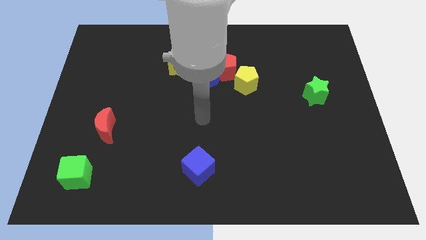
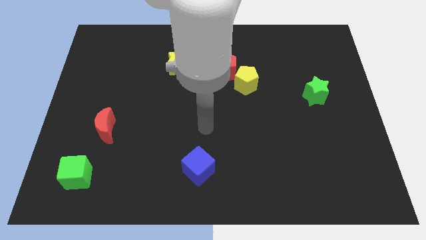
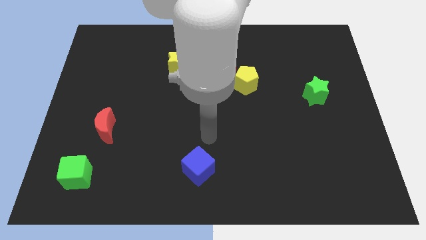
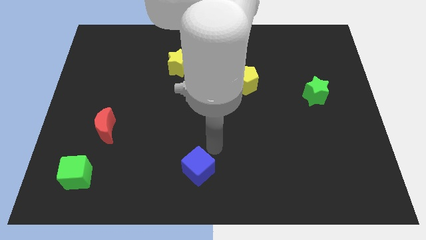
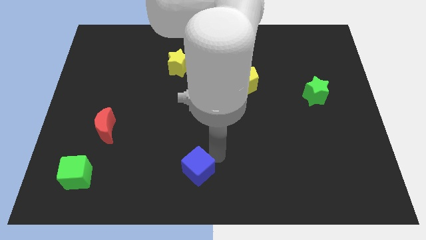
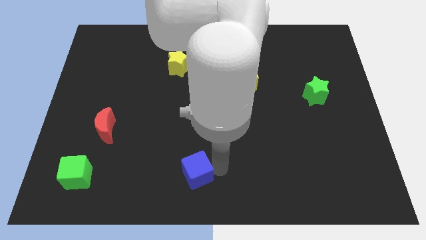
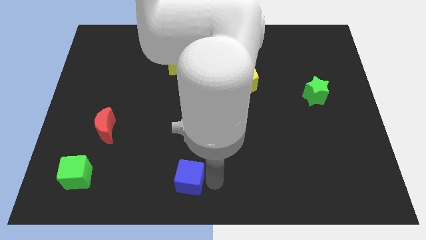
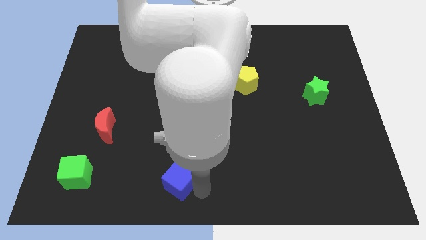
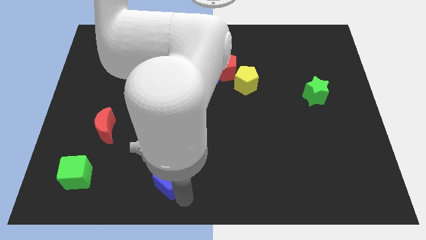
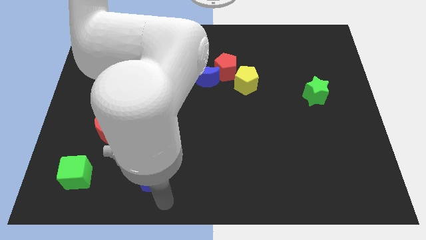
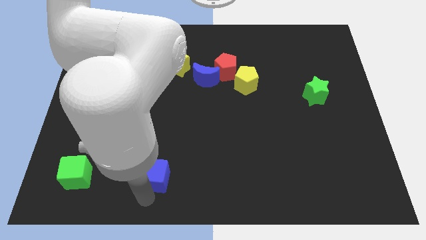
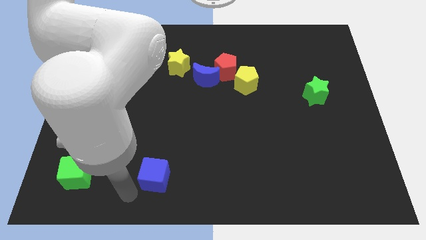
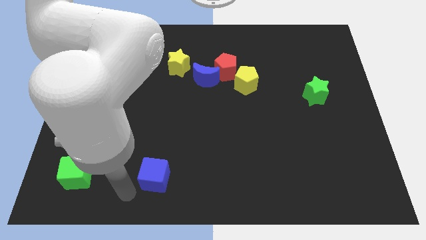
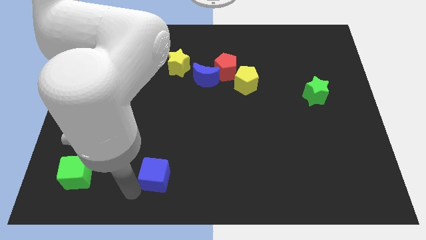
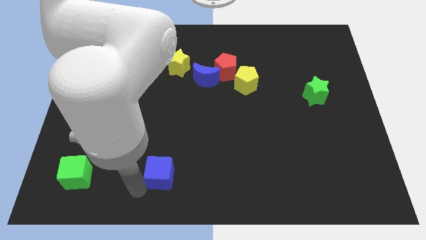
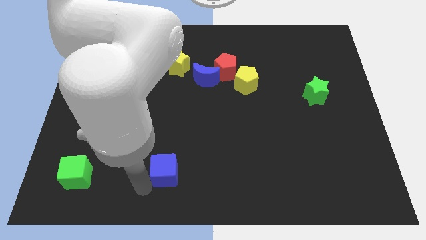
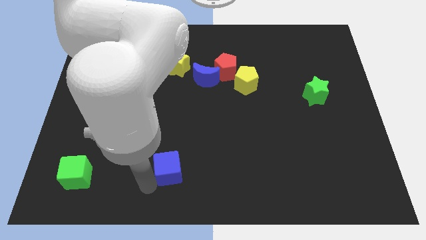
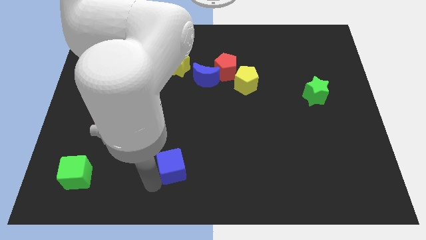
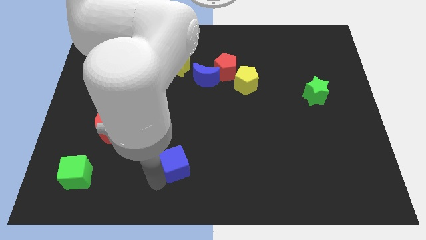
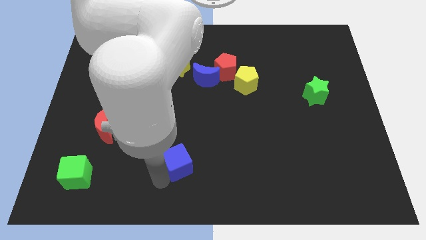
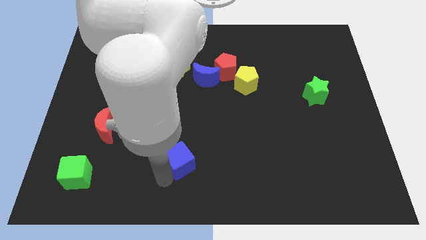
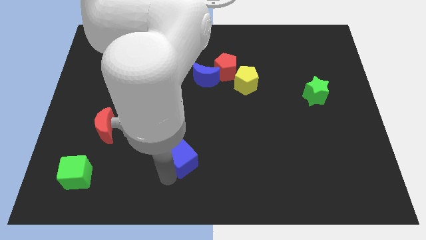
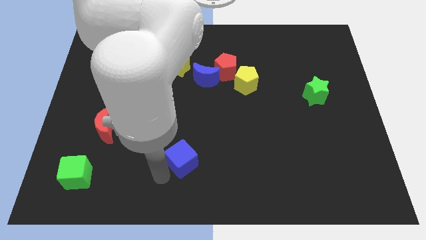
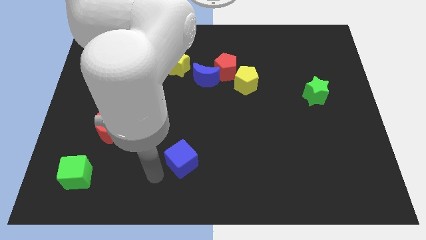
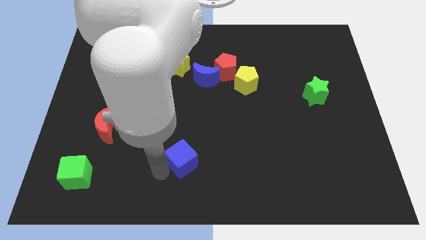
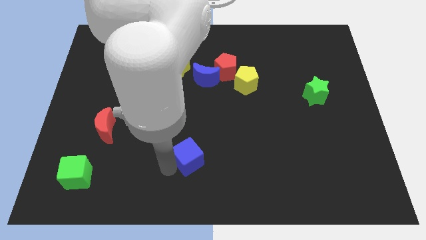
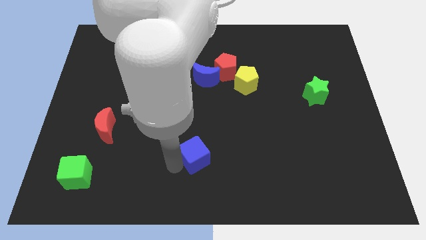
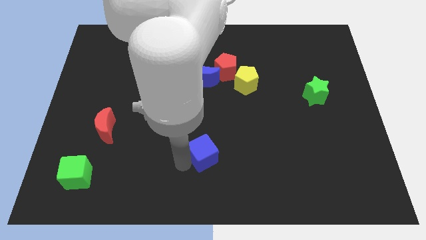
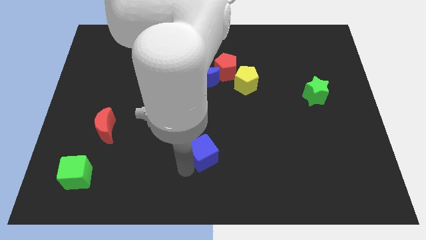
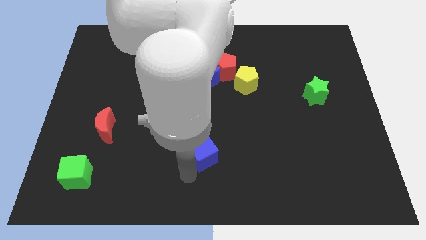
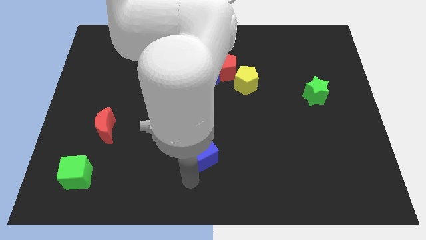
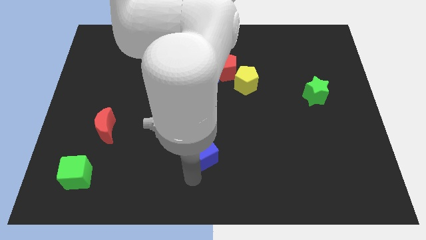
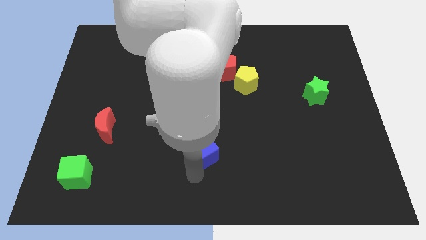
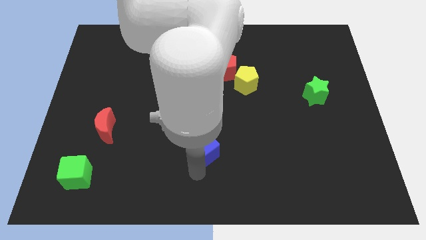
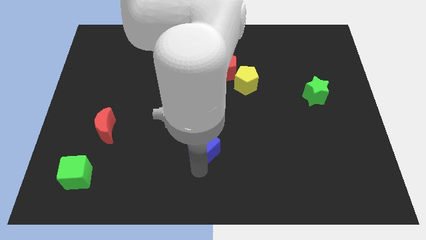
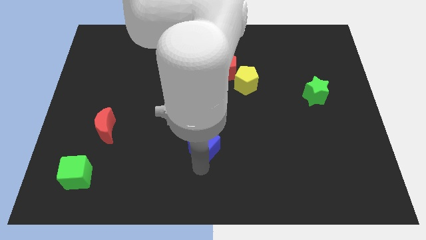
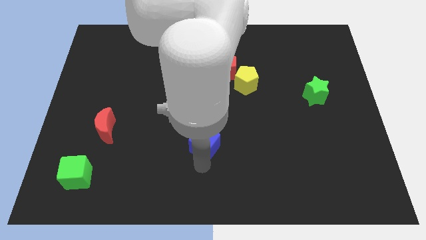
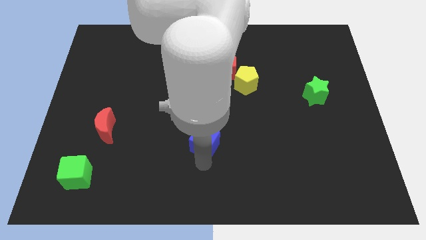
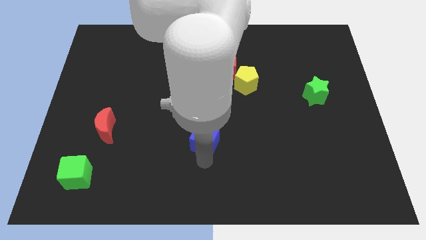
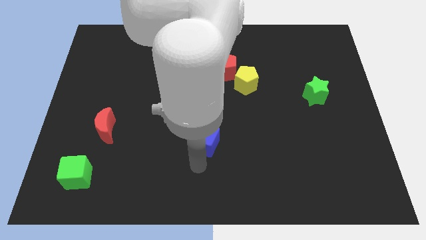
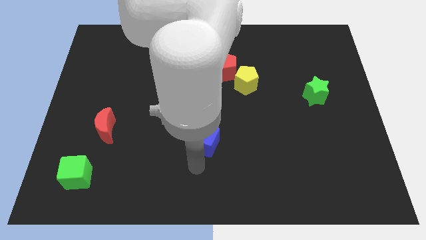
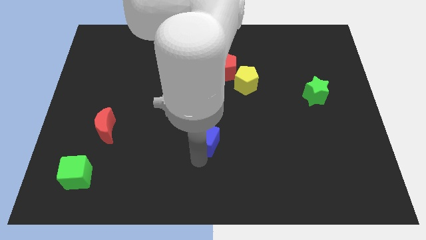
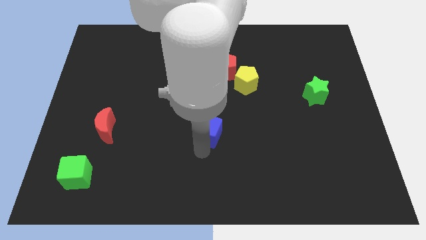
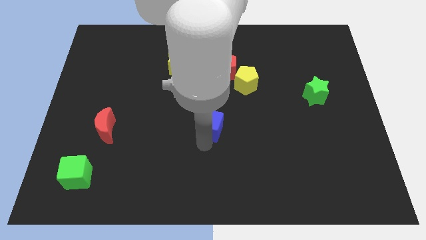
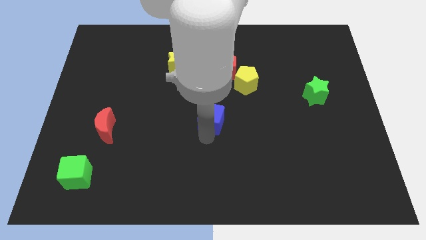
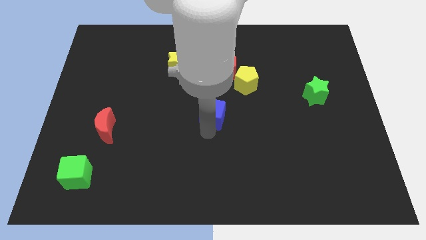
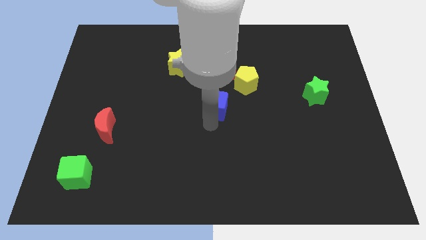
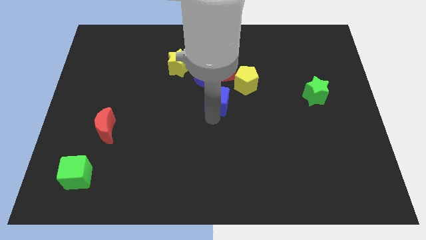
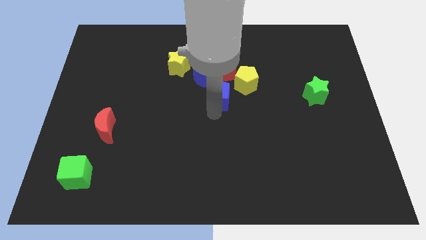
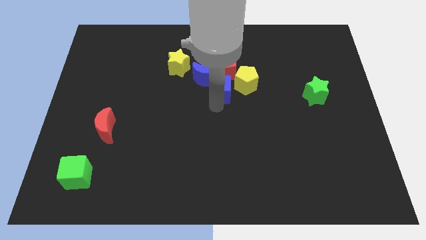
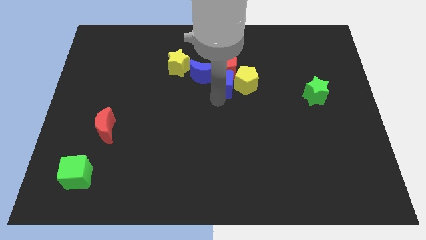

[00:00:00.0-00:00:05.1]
move the blue cube next to the red pentagon

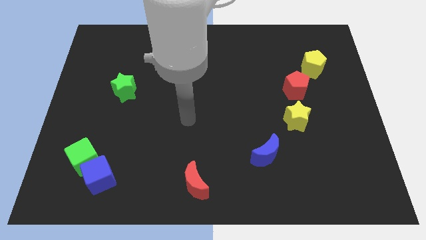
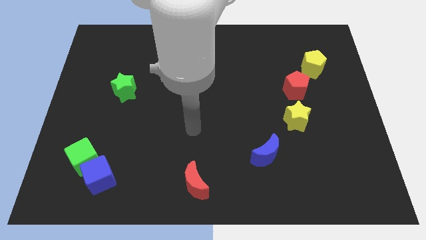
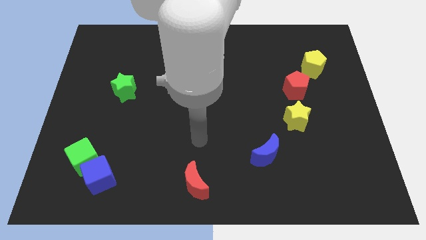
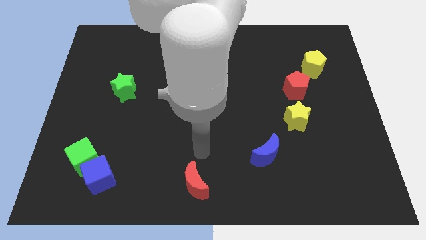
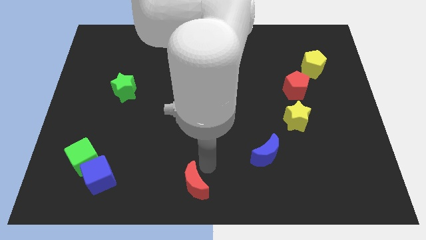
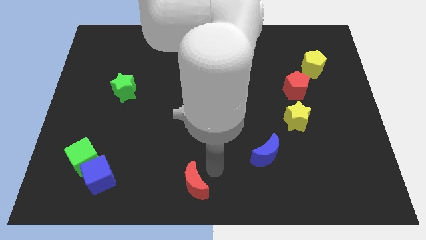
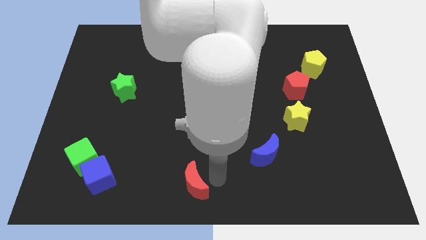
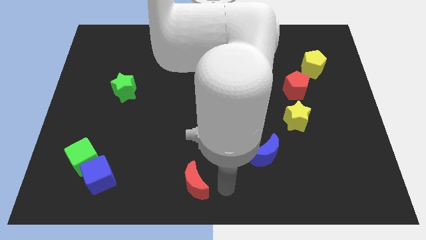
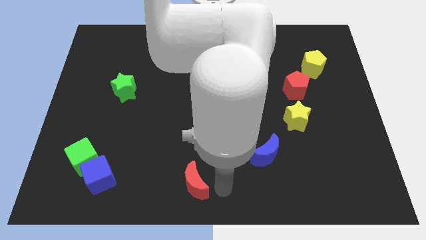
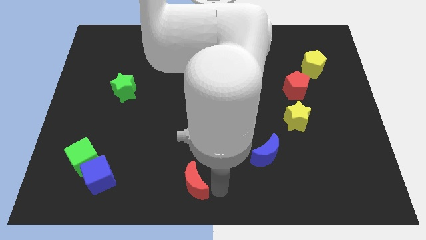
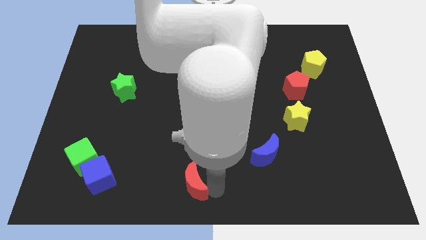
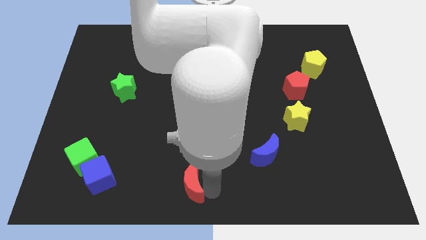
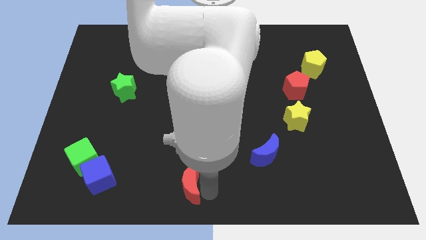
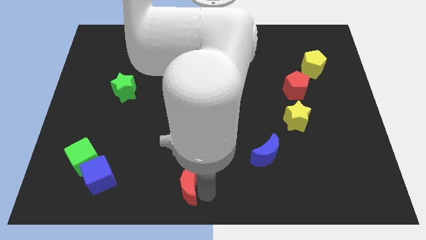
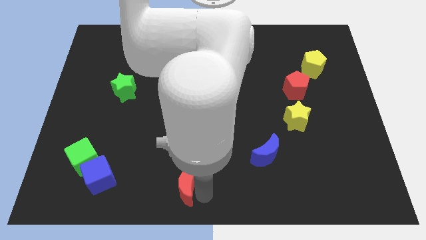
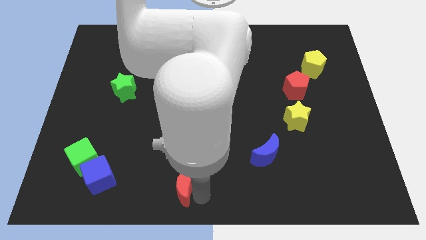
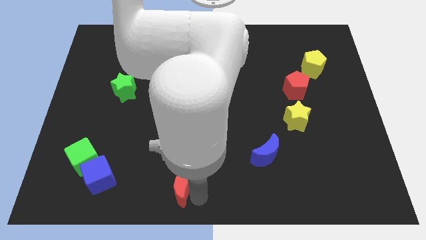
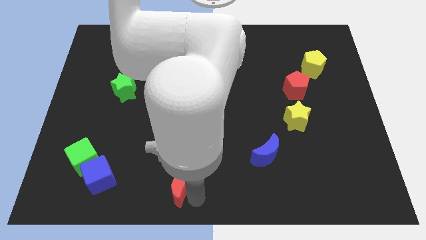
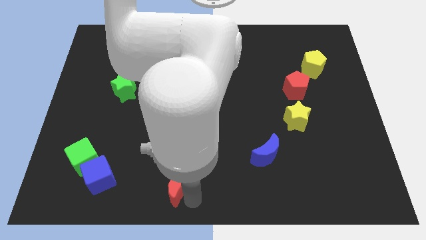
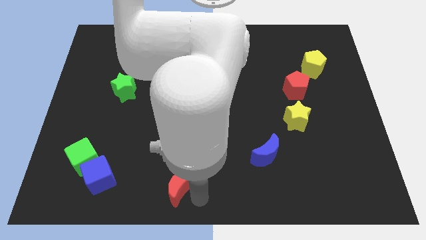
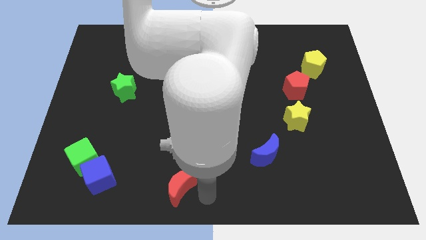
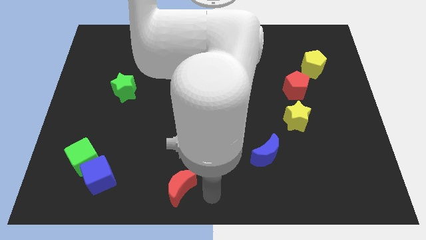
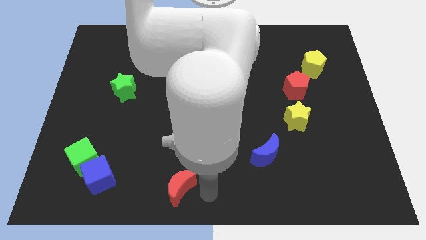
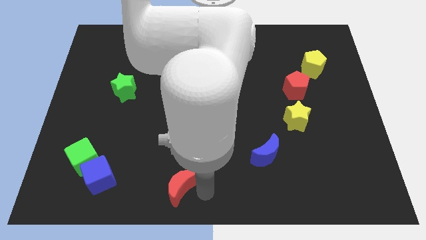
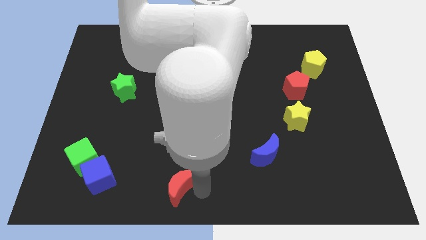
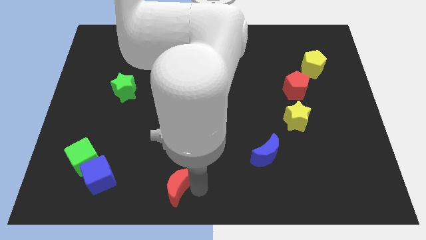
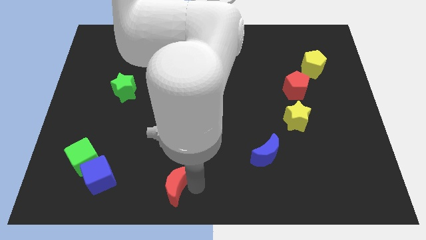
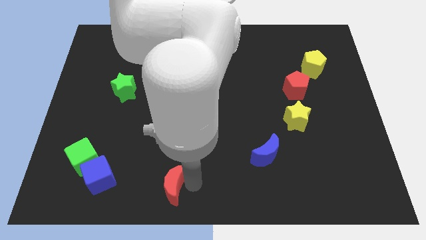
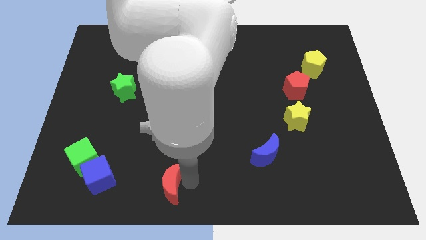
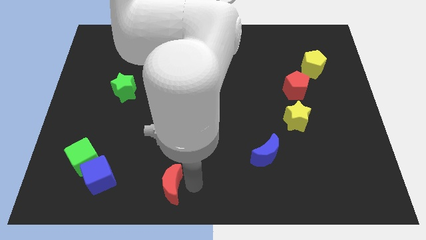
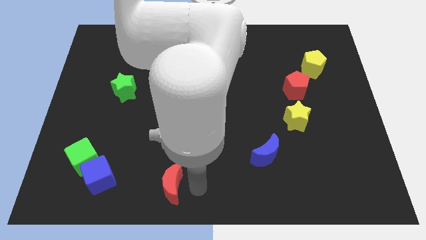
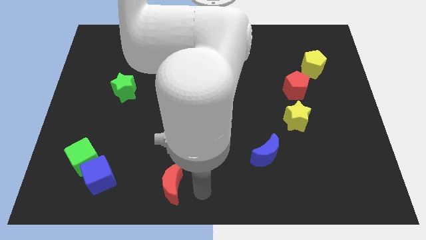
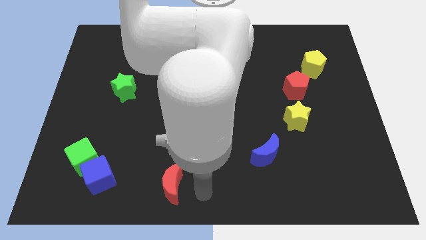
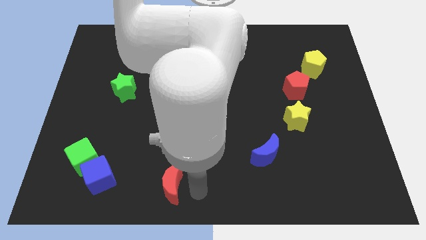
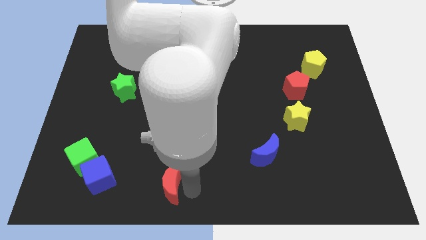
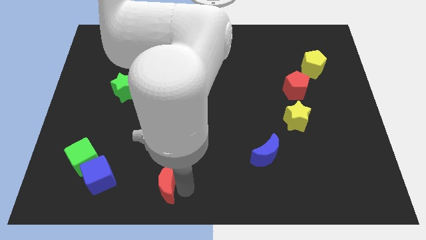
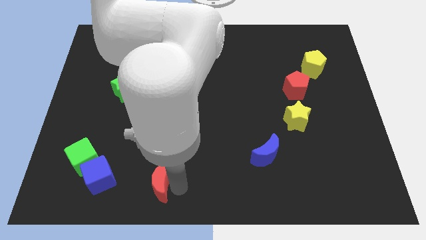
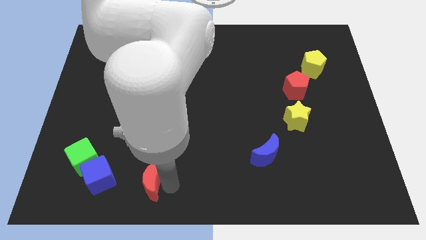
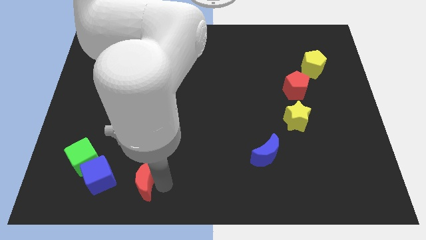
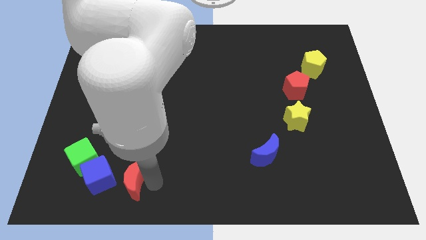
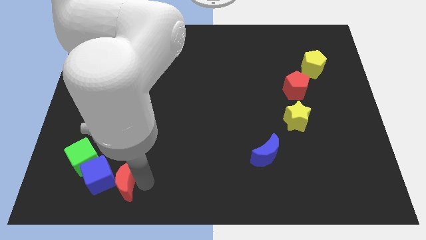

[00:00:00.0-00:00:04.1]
slide the red moon to the blue cube
